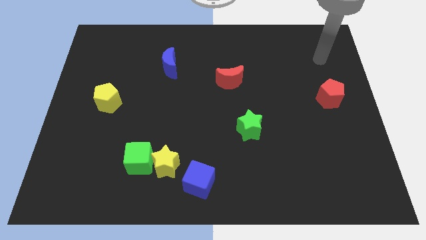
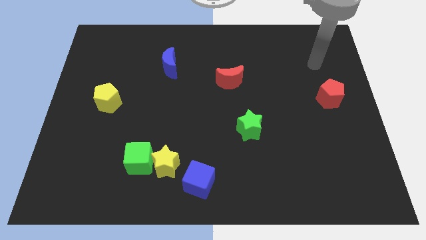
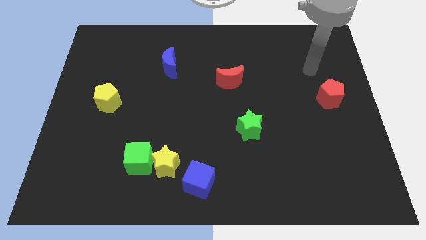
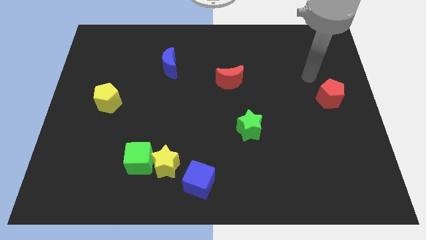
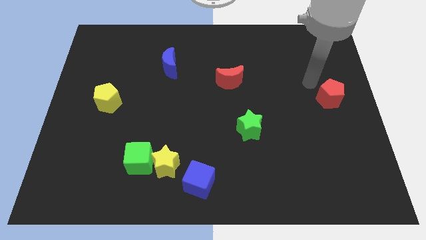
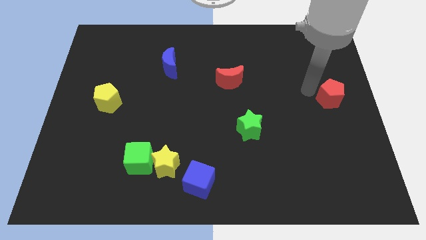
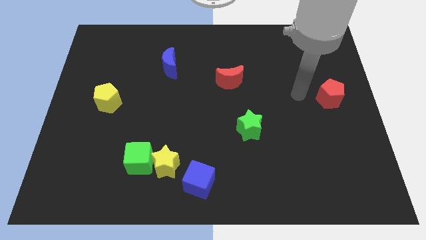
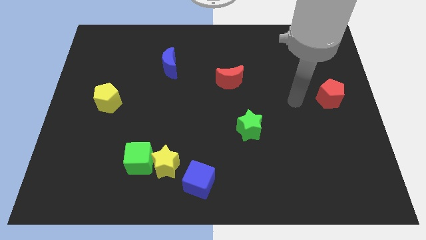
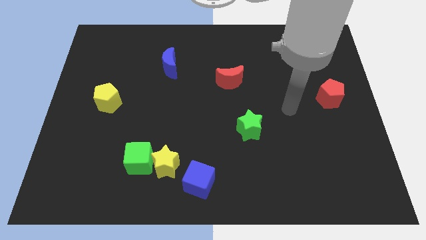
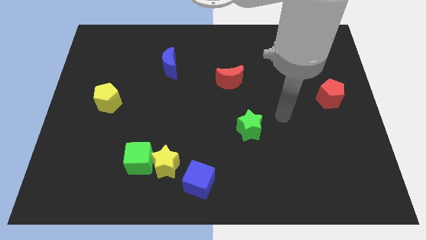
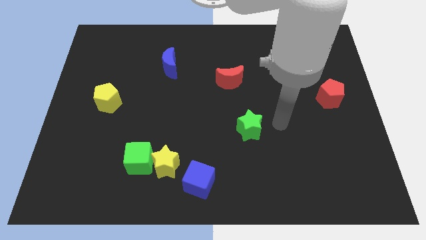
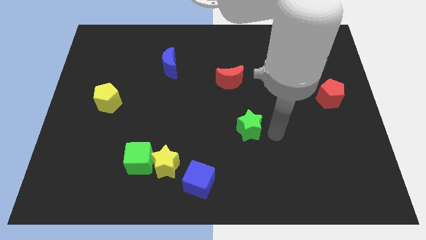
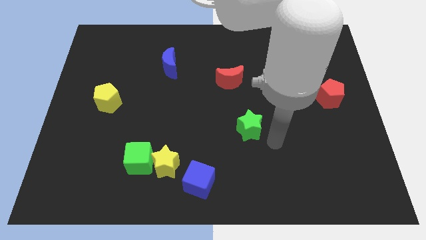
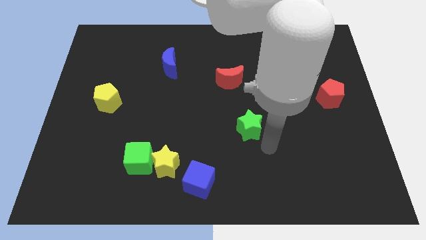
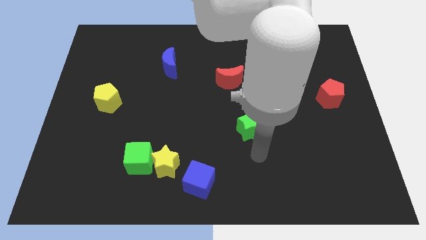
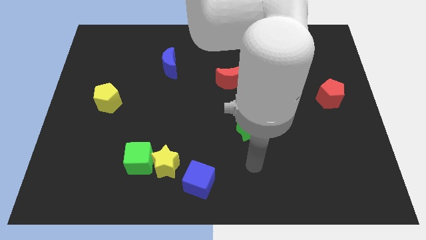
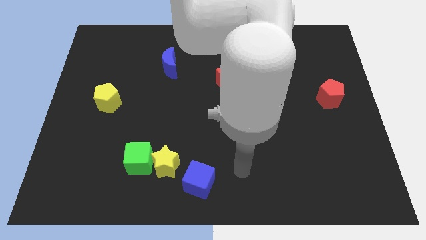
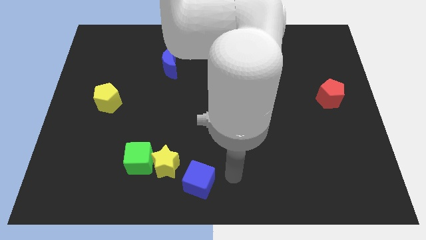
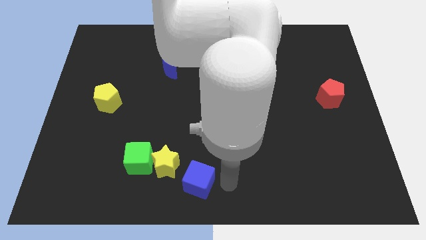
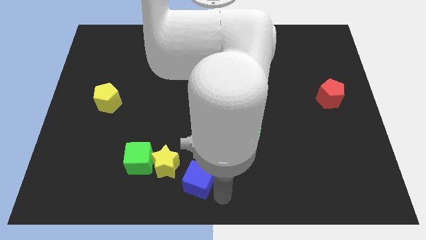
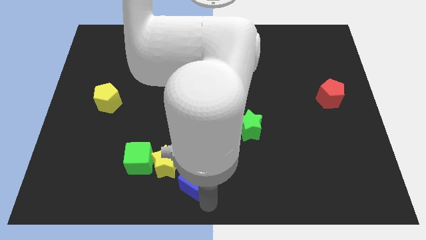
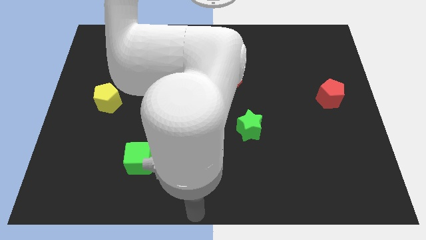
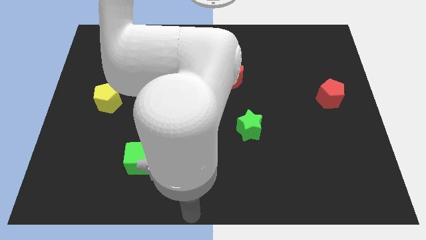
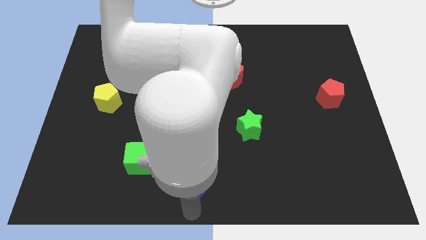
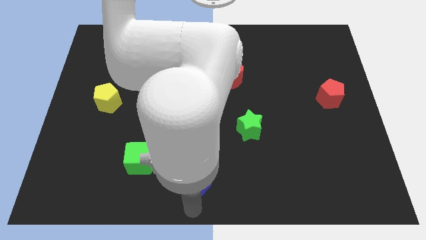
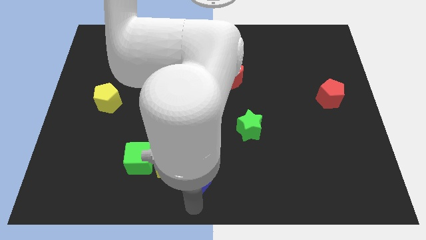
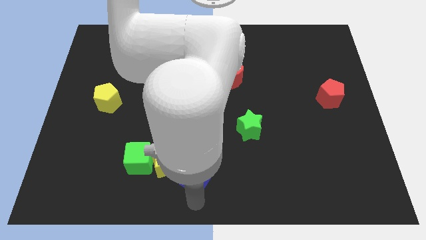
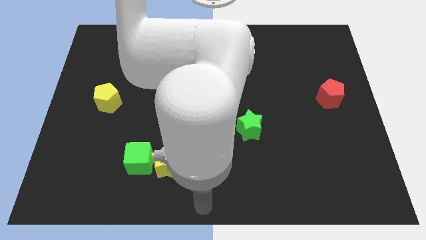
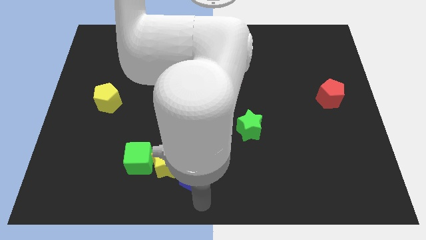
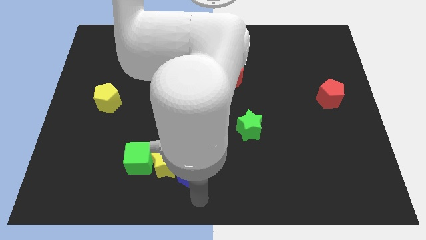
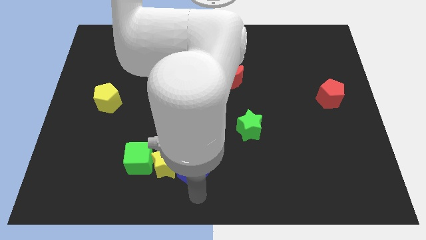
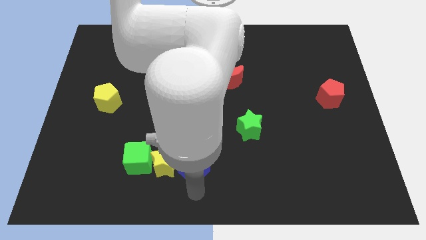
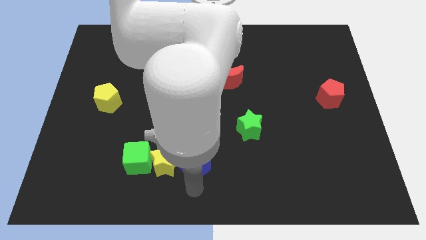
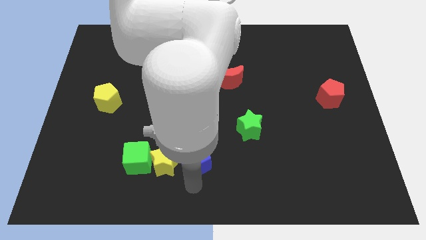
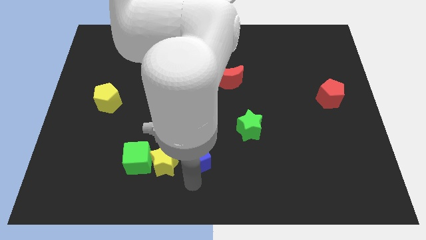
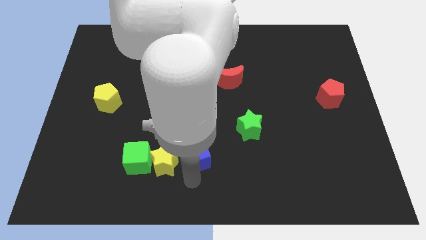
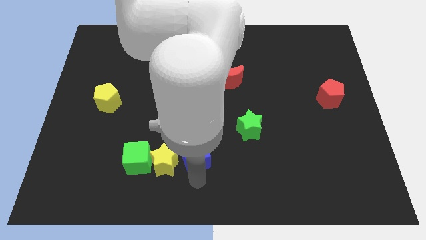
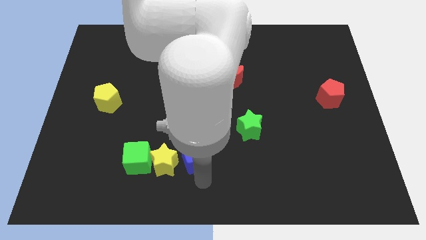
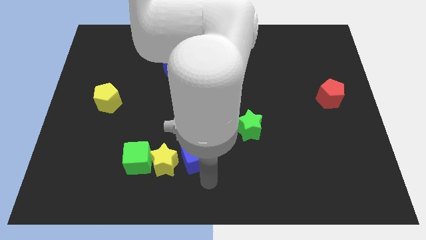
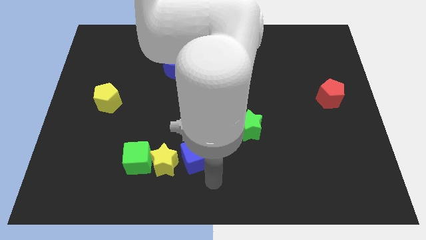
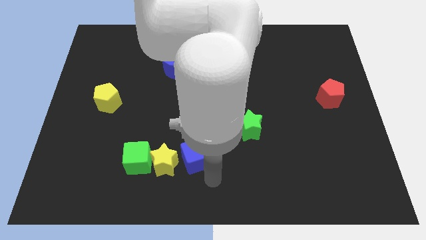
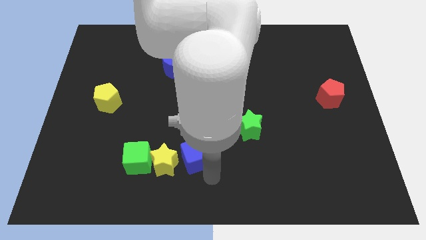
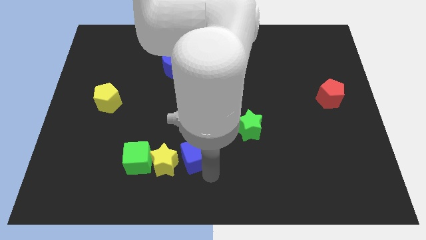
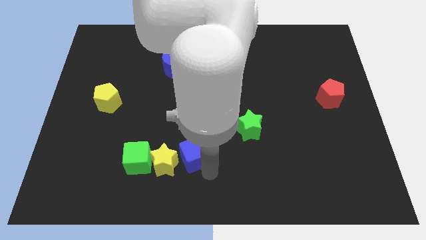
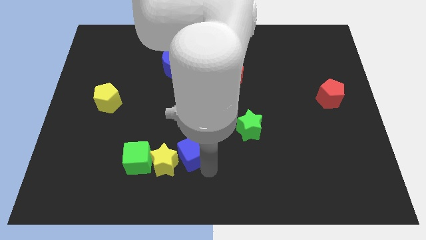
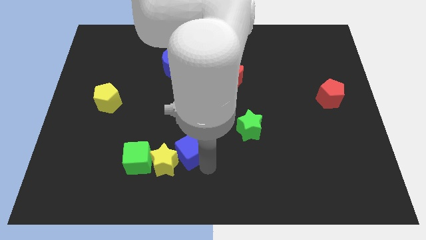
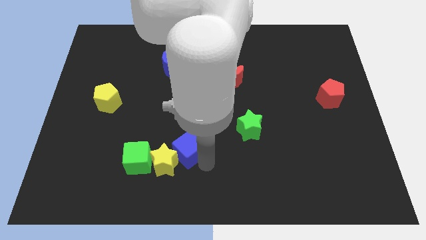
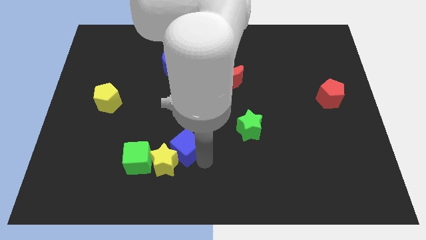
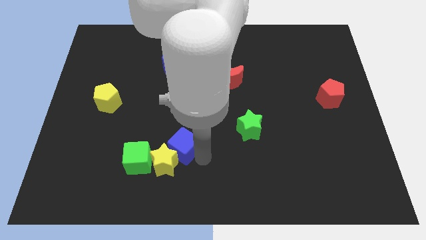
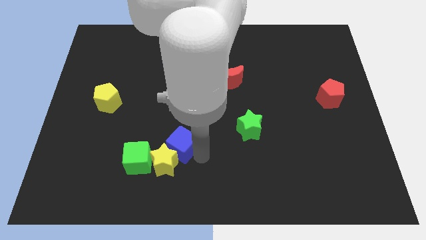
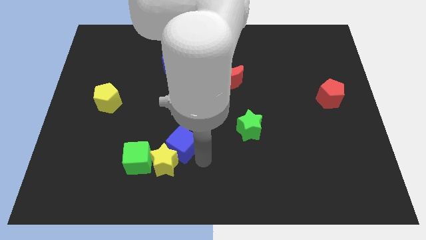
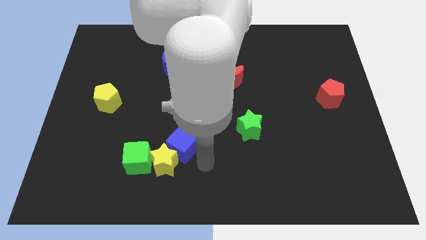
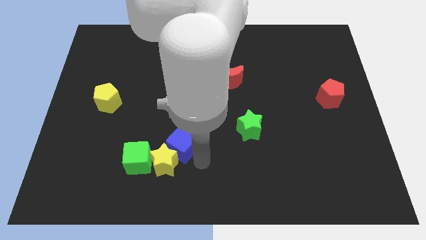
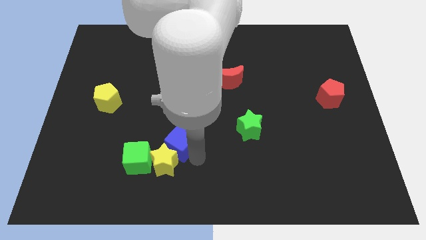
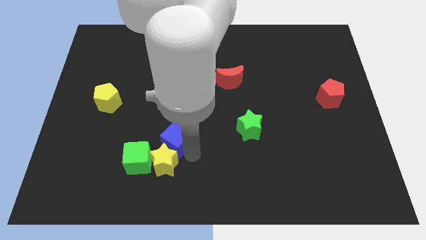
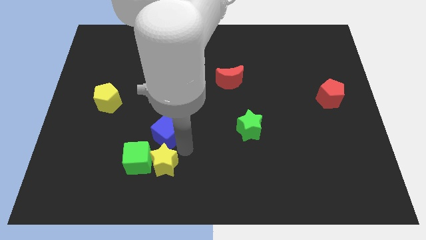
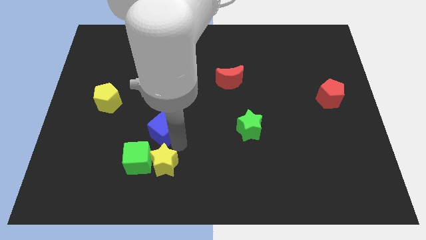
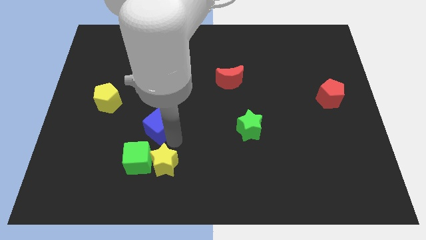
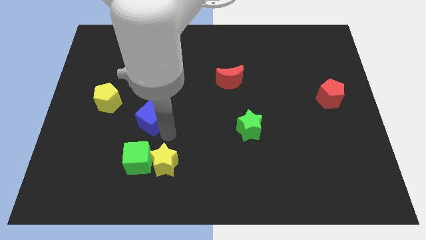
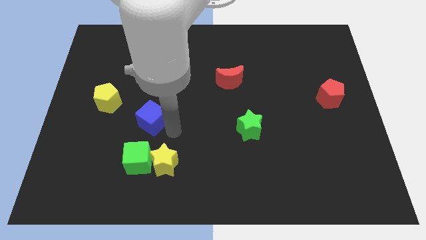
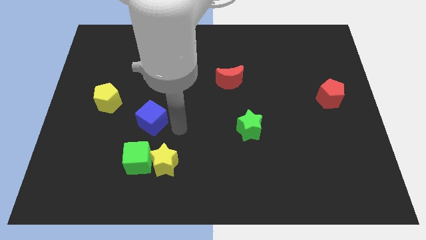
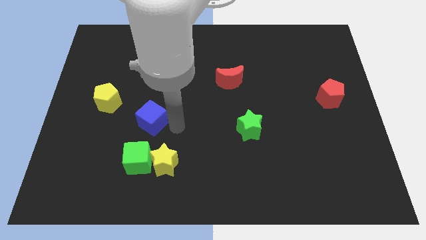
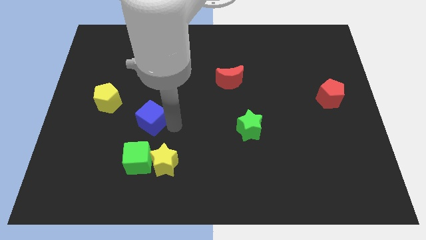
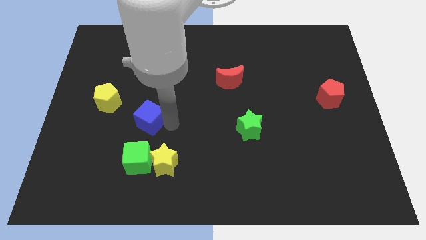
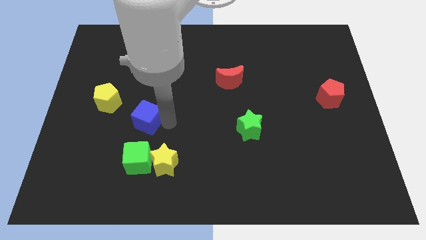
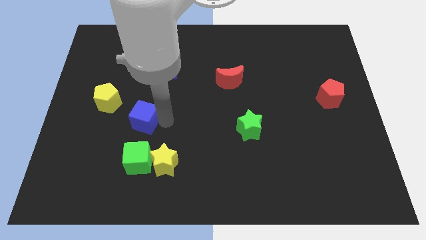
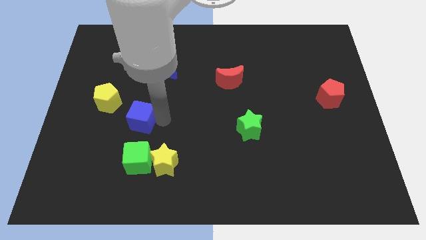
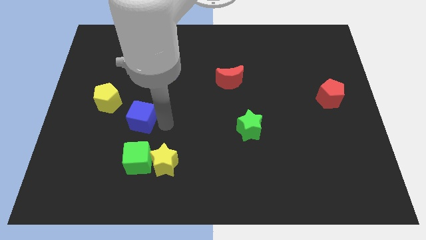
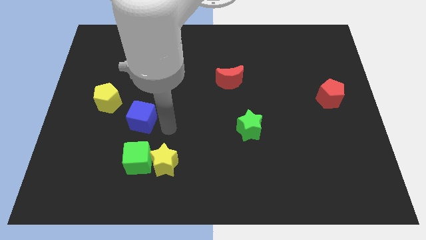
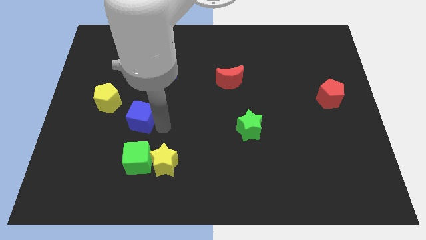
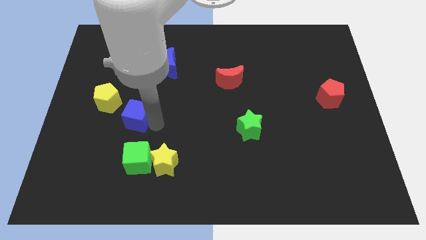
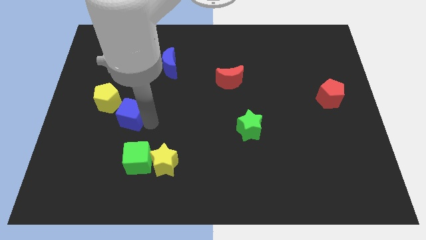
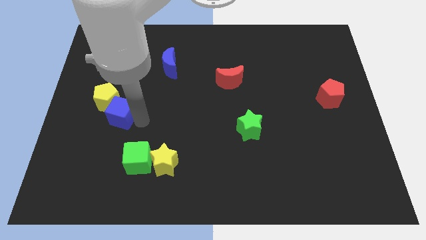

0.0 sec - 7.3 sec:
push the blue cube towards the yellow pentagon
